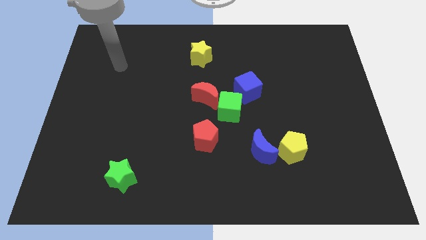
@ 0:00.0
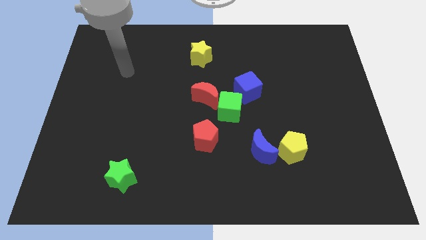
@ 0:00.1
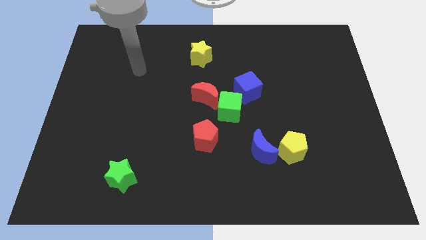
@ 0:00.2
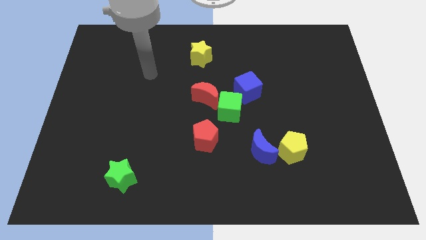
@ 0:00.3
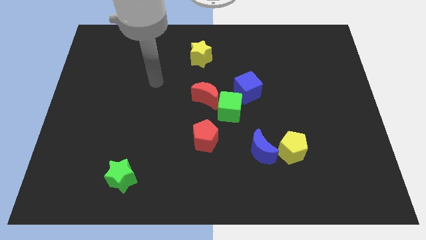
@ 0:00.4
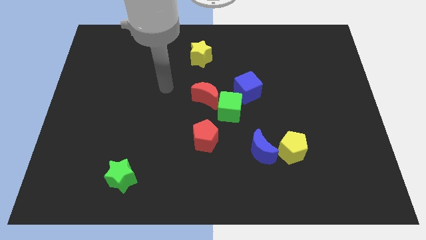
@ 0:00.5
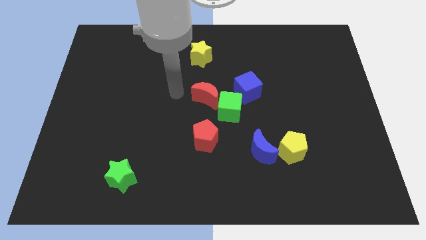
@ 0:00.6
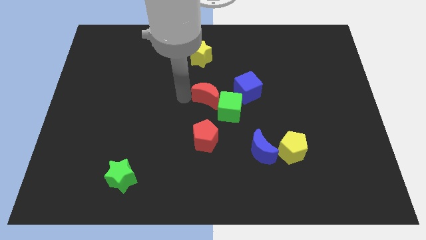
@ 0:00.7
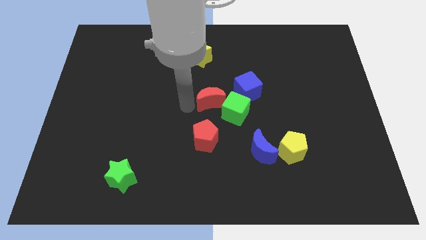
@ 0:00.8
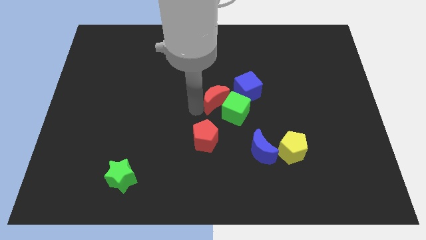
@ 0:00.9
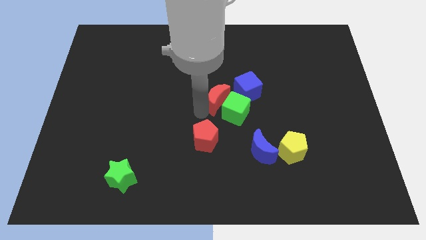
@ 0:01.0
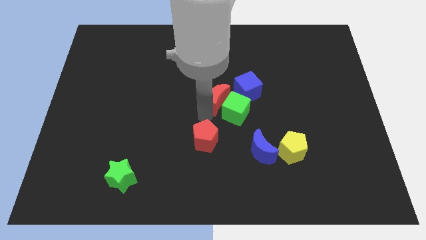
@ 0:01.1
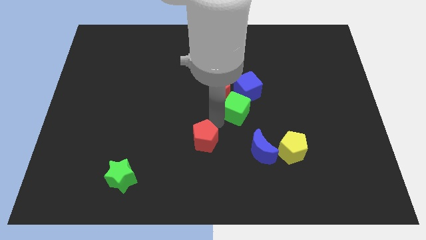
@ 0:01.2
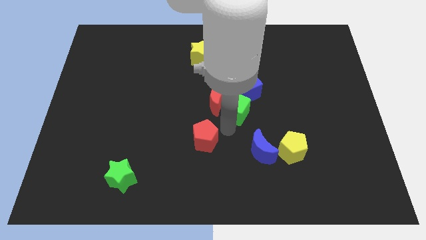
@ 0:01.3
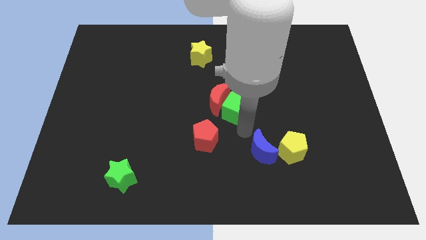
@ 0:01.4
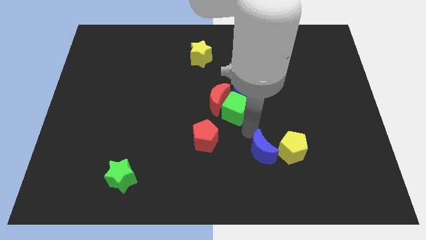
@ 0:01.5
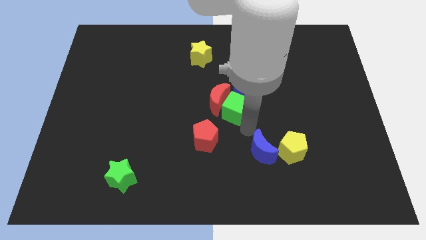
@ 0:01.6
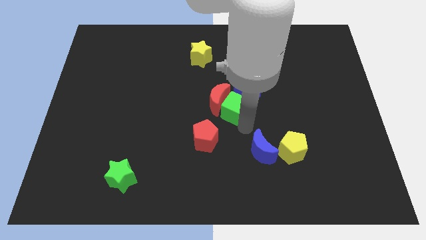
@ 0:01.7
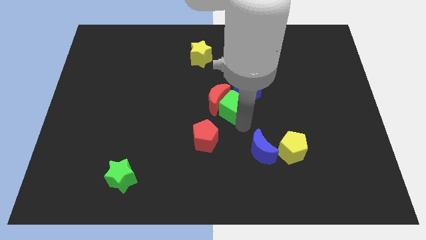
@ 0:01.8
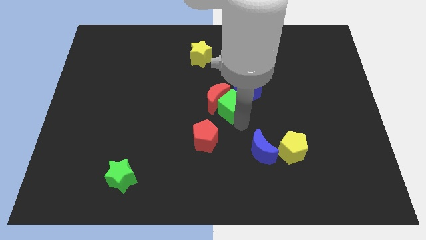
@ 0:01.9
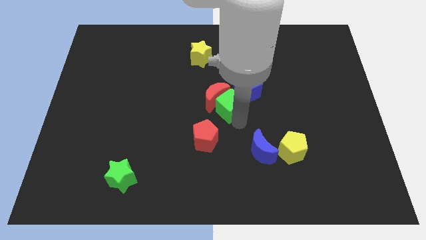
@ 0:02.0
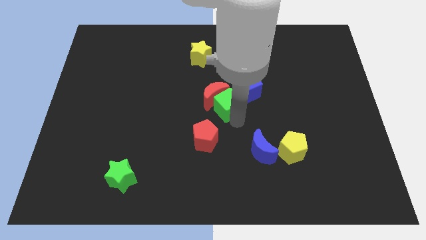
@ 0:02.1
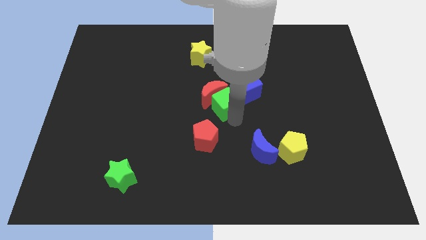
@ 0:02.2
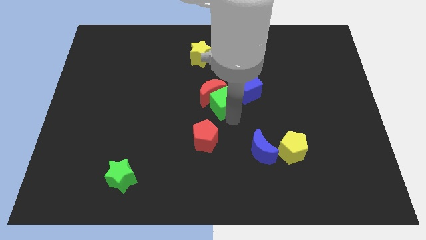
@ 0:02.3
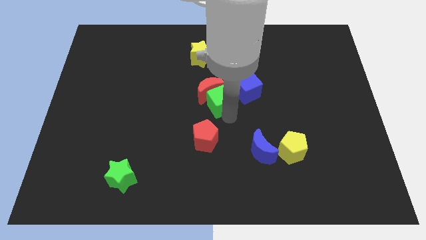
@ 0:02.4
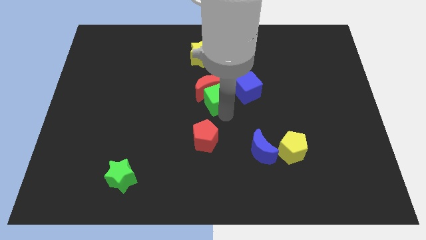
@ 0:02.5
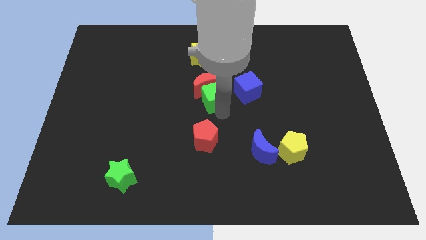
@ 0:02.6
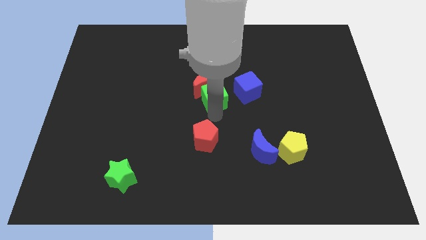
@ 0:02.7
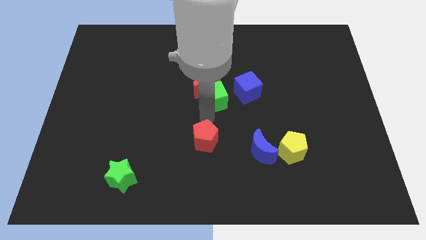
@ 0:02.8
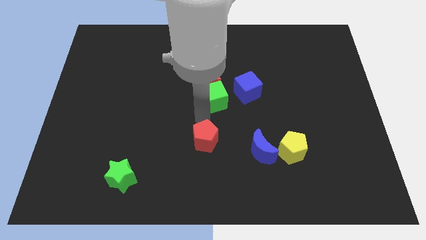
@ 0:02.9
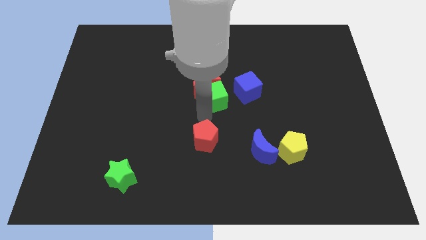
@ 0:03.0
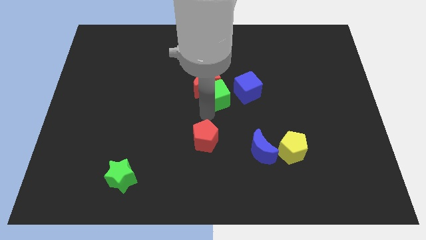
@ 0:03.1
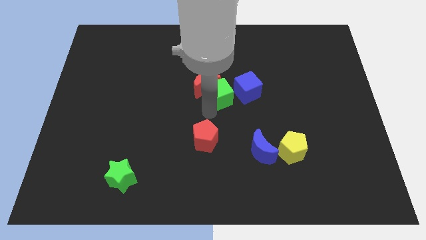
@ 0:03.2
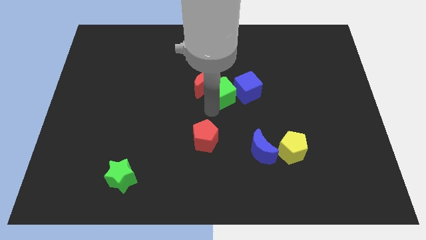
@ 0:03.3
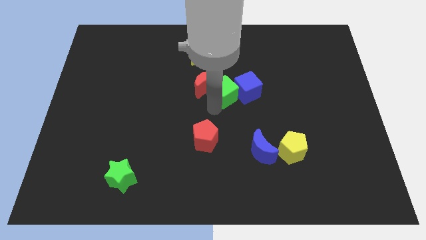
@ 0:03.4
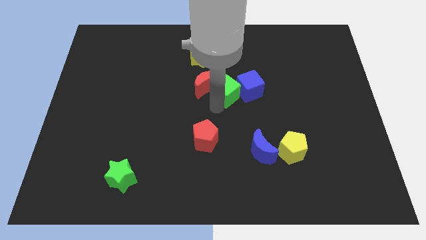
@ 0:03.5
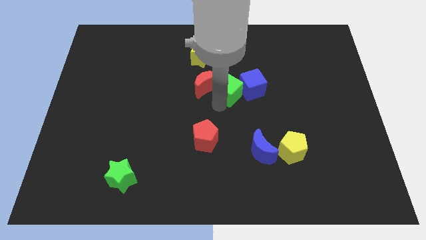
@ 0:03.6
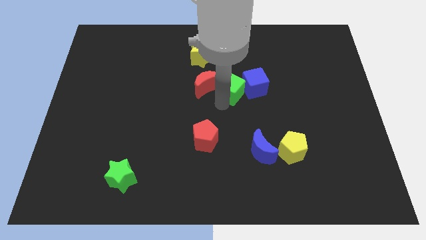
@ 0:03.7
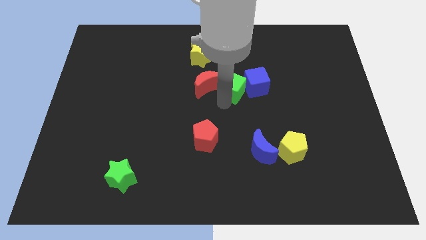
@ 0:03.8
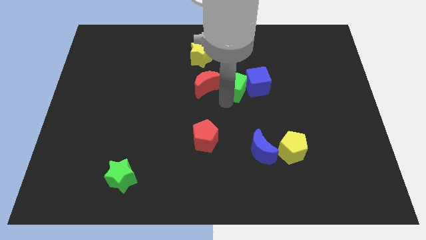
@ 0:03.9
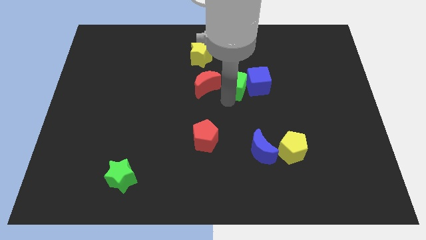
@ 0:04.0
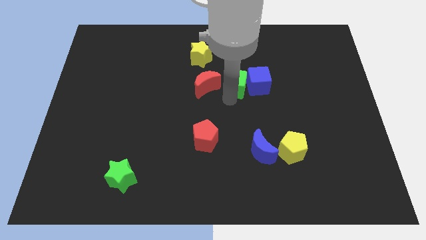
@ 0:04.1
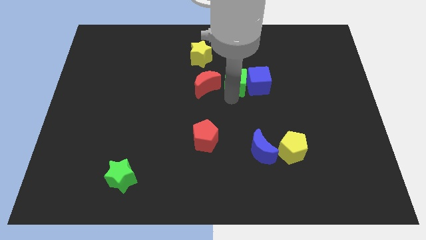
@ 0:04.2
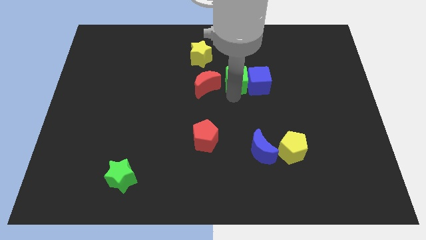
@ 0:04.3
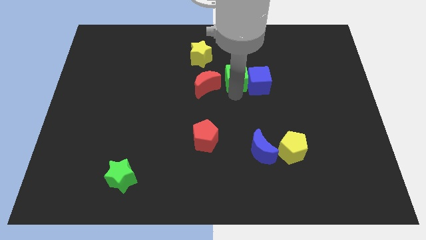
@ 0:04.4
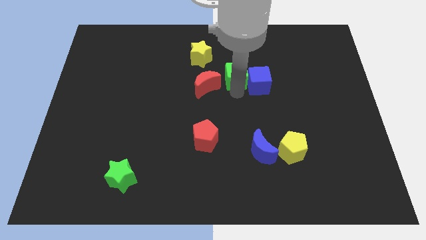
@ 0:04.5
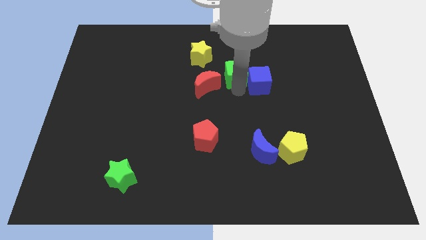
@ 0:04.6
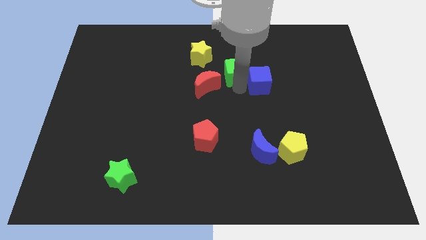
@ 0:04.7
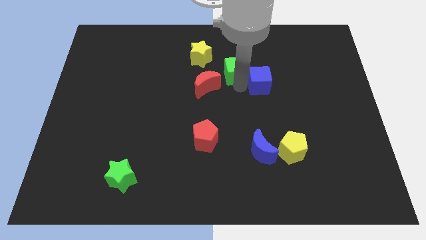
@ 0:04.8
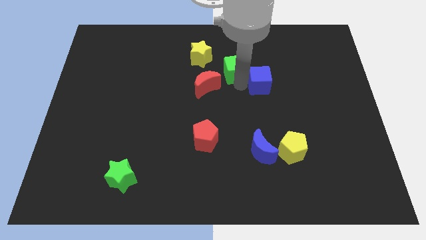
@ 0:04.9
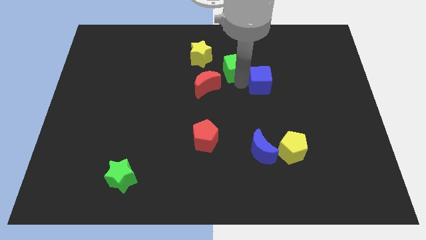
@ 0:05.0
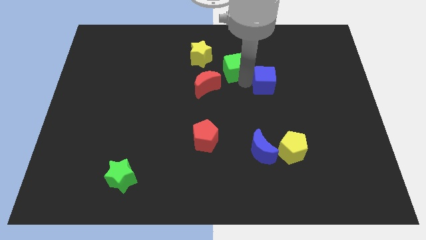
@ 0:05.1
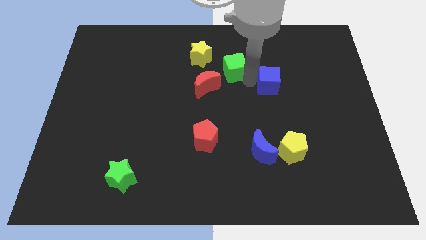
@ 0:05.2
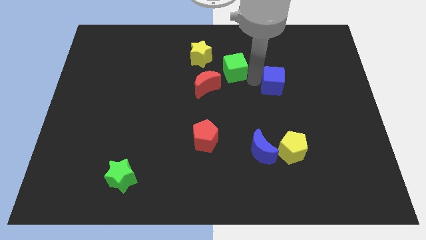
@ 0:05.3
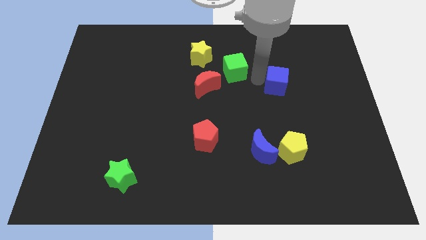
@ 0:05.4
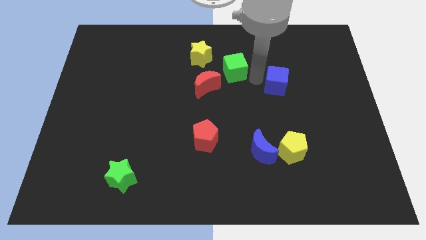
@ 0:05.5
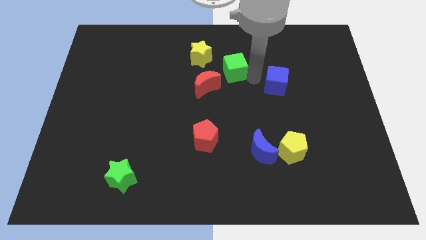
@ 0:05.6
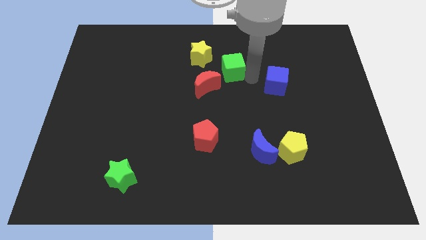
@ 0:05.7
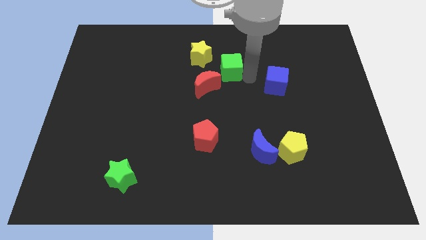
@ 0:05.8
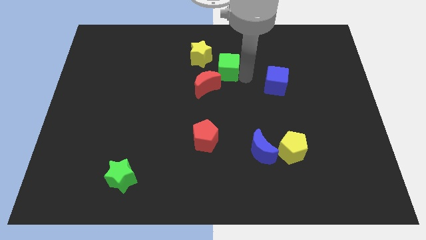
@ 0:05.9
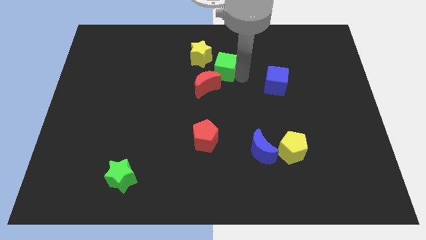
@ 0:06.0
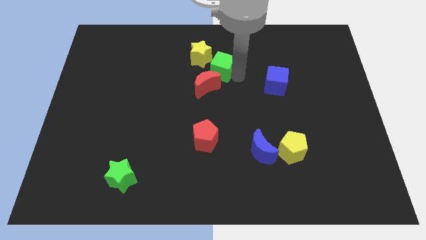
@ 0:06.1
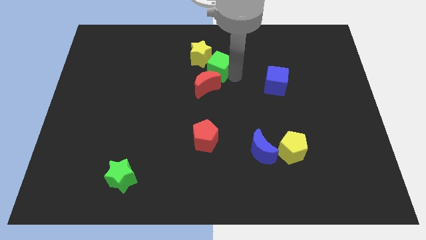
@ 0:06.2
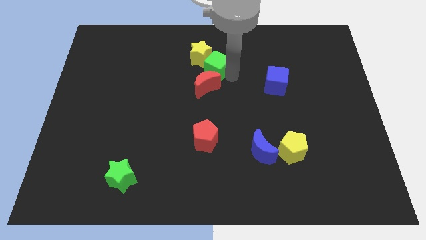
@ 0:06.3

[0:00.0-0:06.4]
push the green cube close to the yellow star

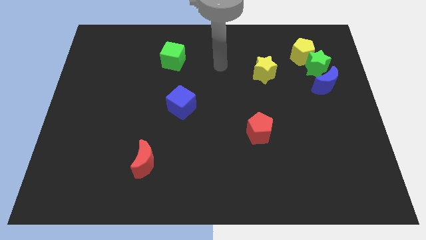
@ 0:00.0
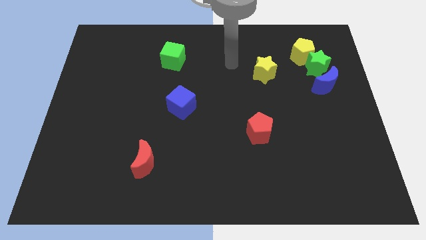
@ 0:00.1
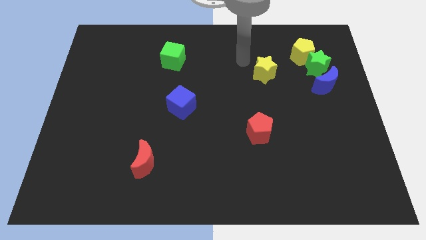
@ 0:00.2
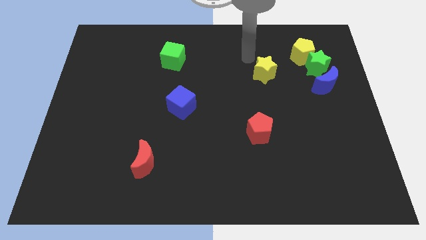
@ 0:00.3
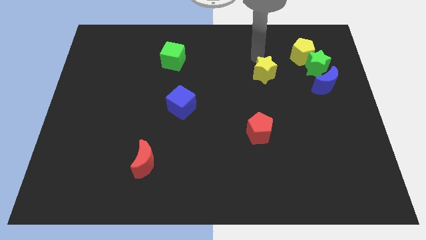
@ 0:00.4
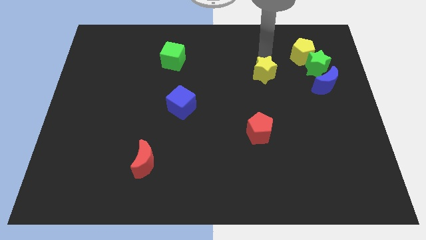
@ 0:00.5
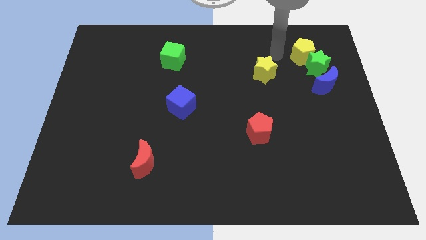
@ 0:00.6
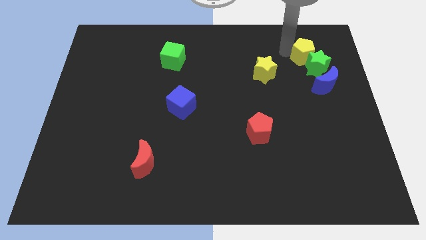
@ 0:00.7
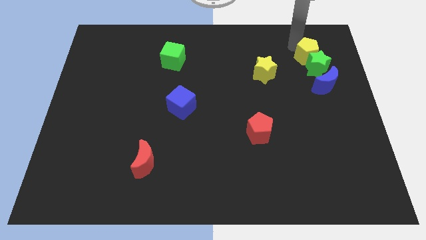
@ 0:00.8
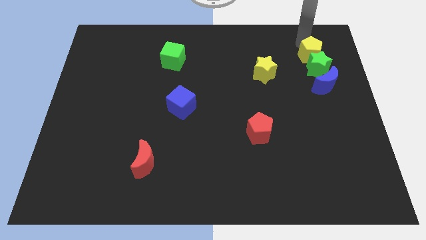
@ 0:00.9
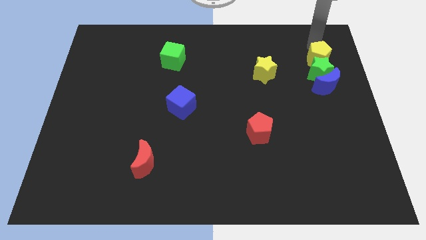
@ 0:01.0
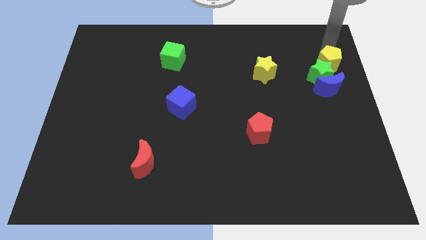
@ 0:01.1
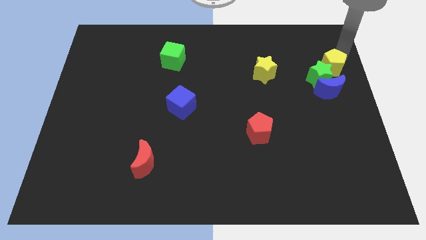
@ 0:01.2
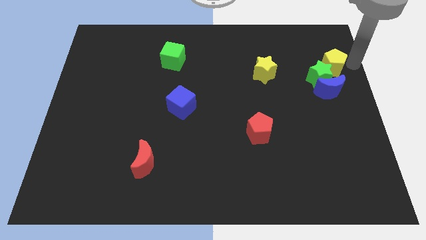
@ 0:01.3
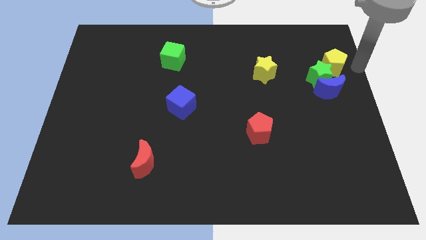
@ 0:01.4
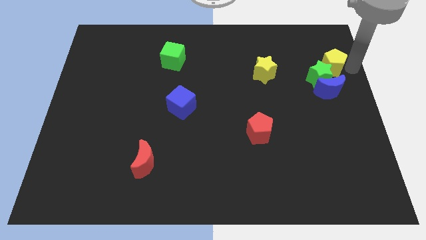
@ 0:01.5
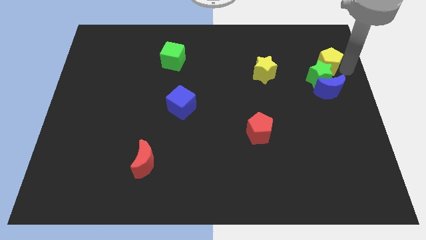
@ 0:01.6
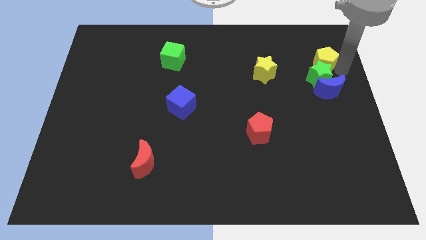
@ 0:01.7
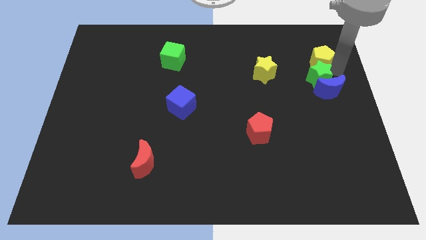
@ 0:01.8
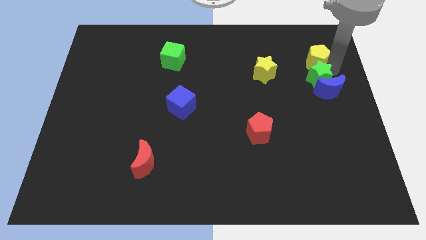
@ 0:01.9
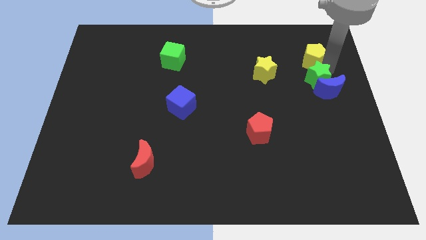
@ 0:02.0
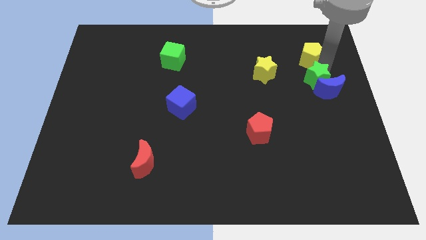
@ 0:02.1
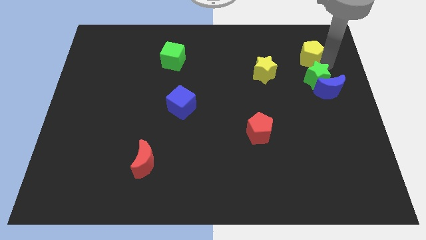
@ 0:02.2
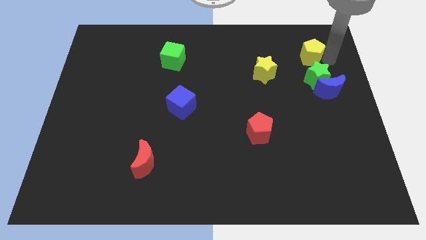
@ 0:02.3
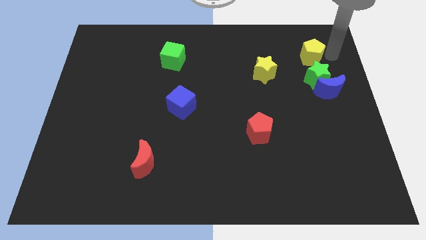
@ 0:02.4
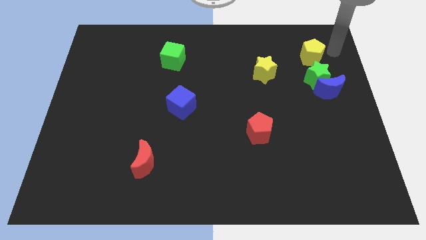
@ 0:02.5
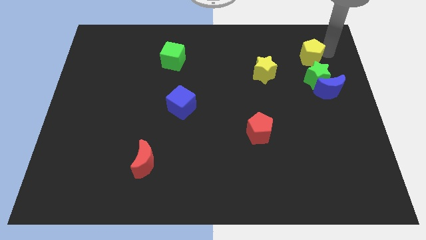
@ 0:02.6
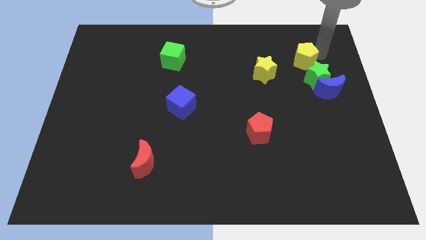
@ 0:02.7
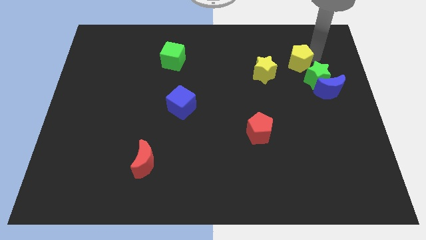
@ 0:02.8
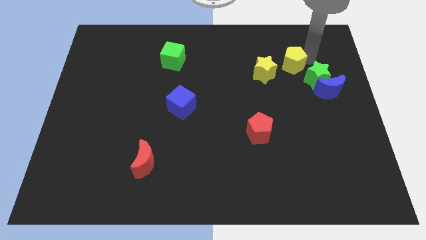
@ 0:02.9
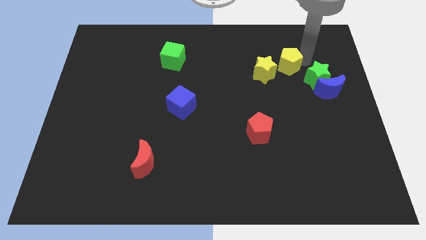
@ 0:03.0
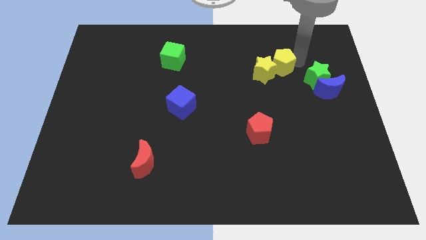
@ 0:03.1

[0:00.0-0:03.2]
slide the yellow pentagon to the yellow star
